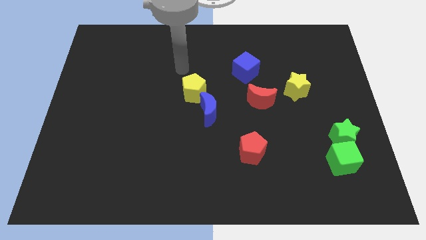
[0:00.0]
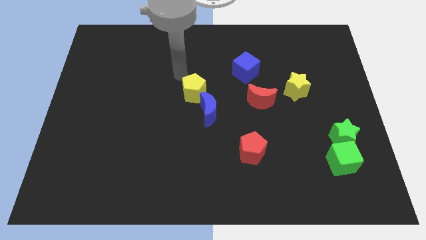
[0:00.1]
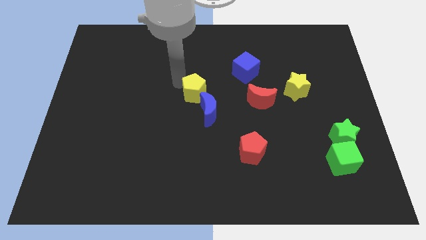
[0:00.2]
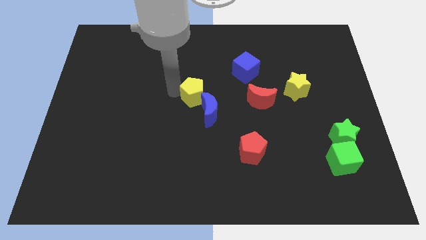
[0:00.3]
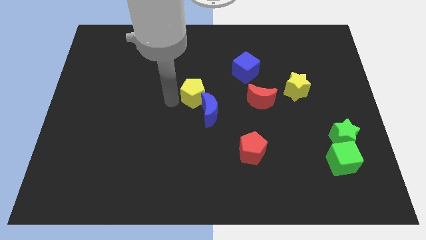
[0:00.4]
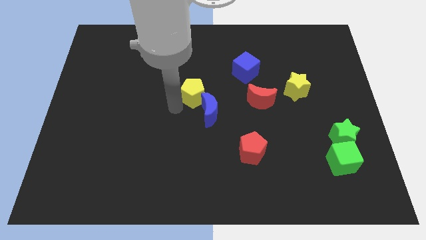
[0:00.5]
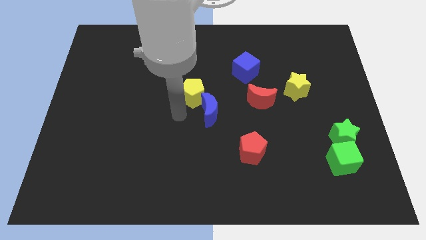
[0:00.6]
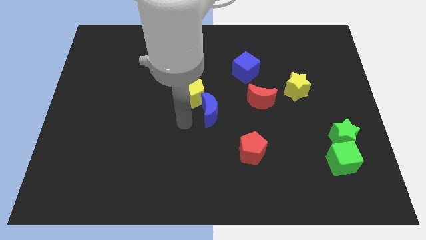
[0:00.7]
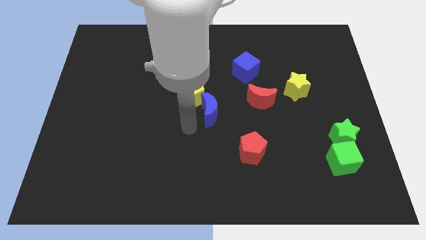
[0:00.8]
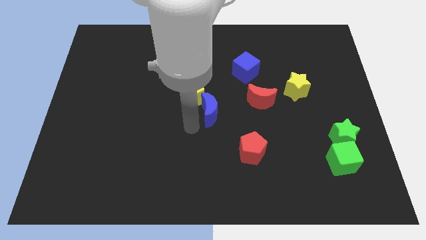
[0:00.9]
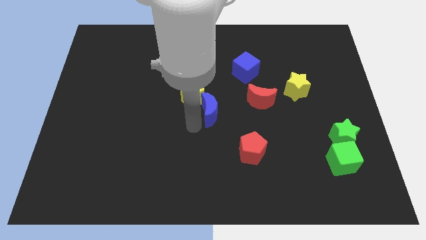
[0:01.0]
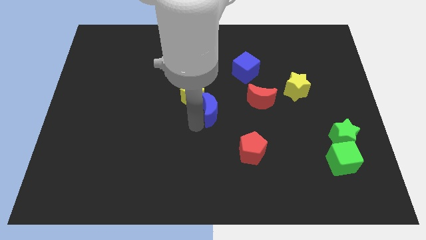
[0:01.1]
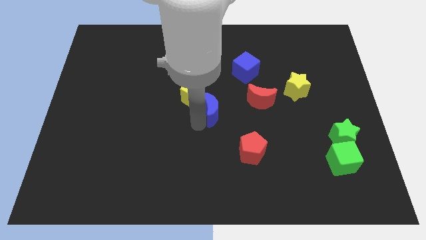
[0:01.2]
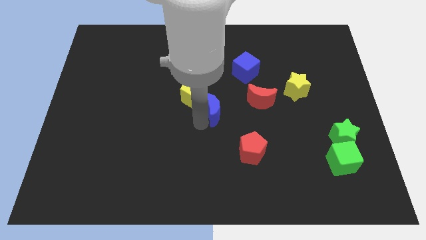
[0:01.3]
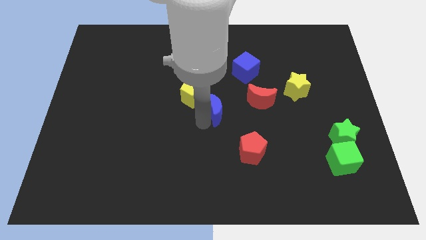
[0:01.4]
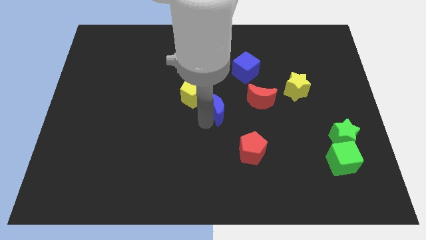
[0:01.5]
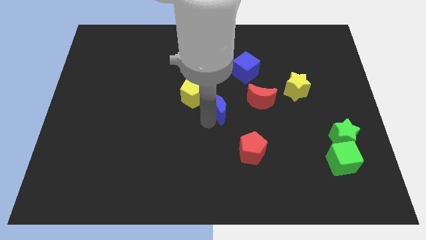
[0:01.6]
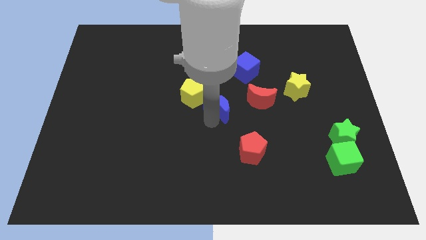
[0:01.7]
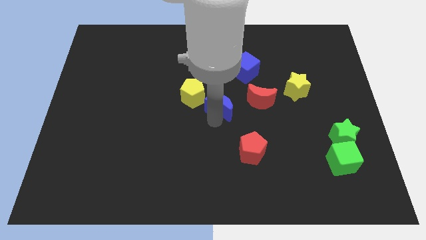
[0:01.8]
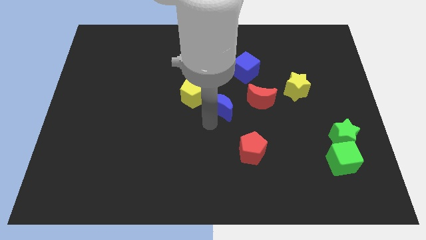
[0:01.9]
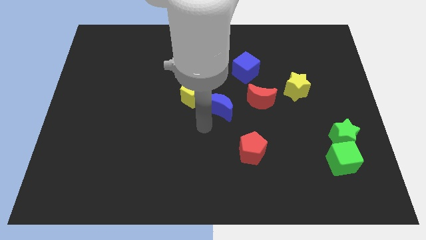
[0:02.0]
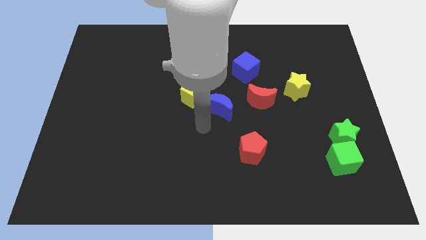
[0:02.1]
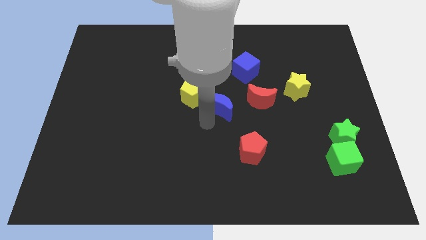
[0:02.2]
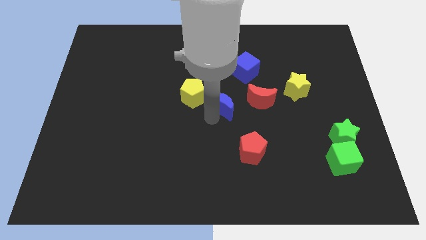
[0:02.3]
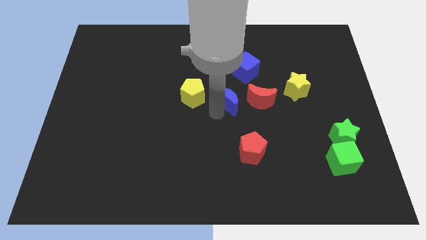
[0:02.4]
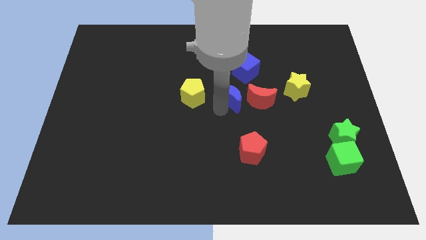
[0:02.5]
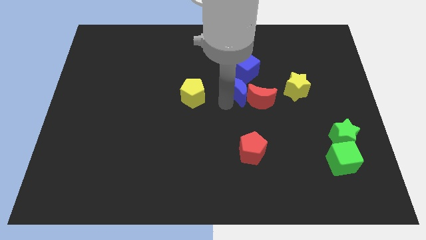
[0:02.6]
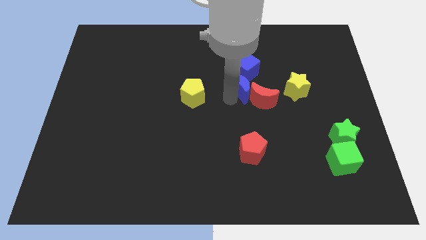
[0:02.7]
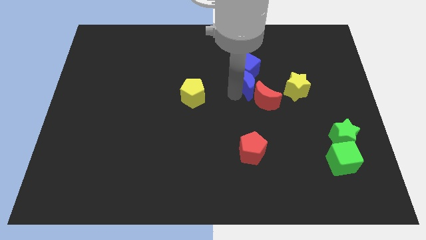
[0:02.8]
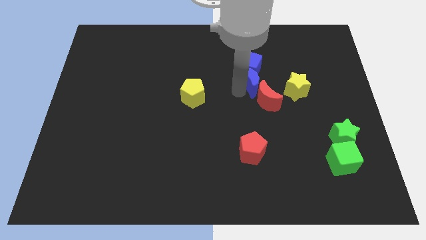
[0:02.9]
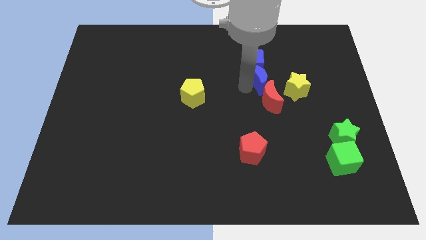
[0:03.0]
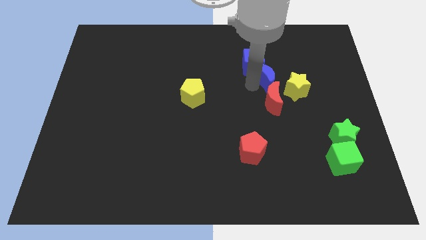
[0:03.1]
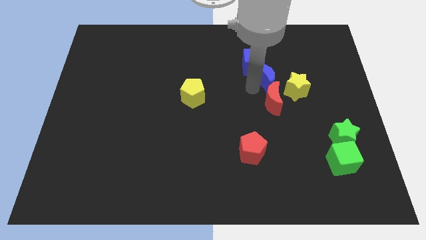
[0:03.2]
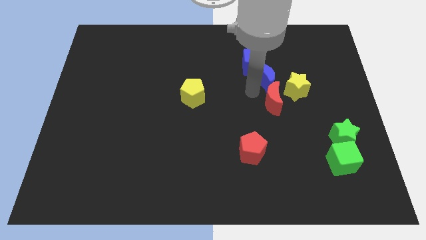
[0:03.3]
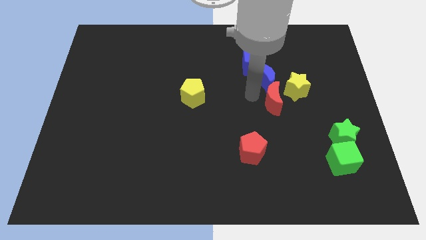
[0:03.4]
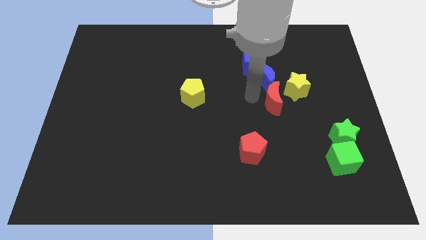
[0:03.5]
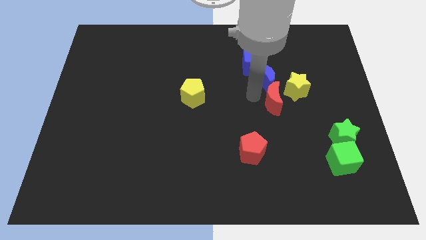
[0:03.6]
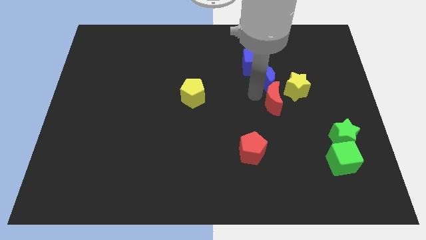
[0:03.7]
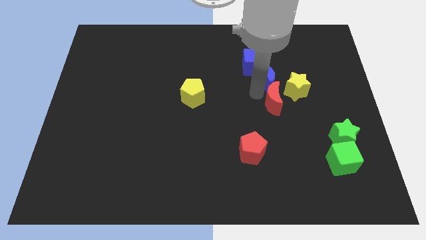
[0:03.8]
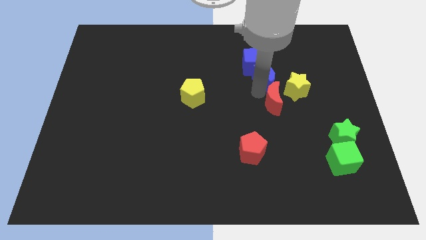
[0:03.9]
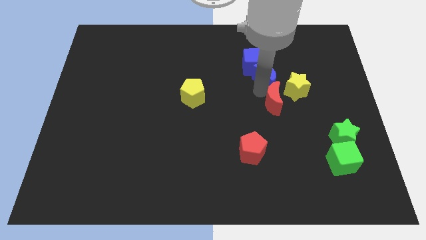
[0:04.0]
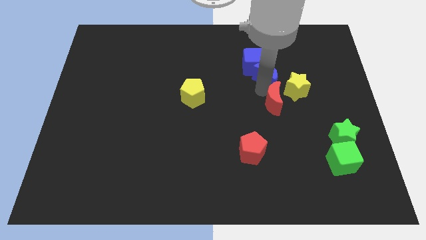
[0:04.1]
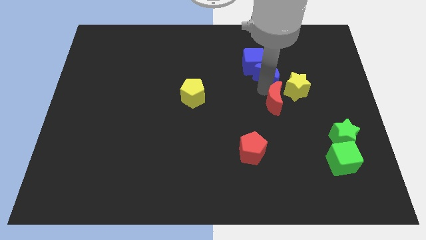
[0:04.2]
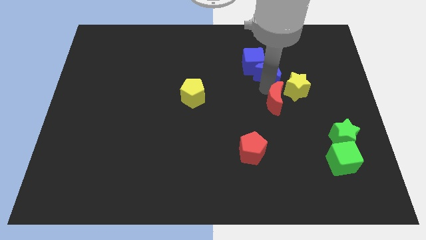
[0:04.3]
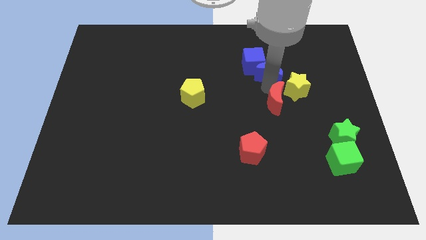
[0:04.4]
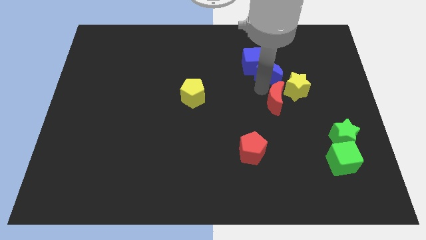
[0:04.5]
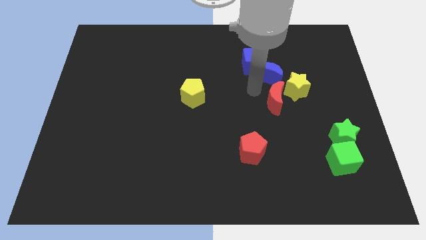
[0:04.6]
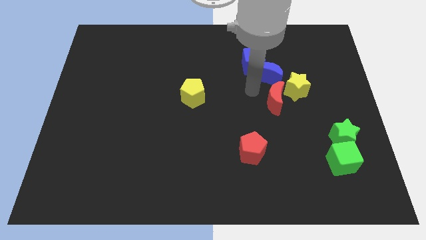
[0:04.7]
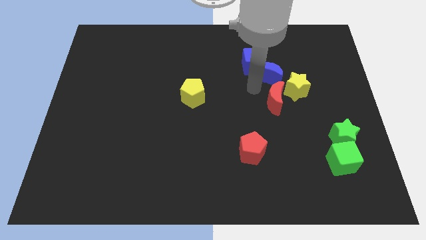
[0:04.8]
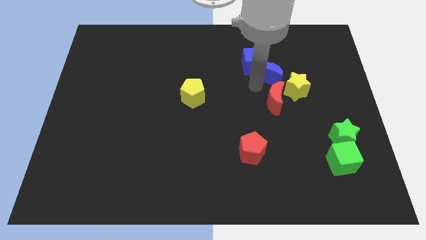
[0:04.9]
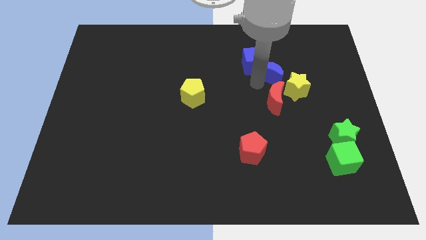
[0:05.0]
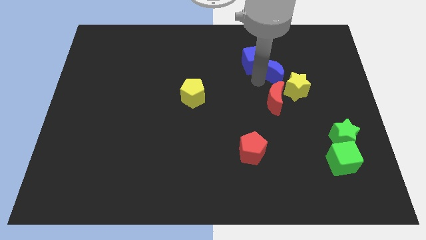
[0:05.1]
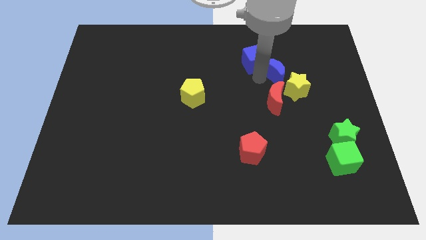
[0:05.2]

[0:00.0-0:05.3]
move the blue moon above the yellow star

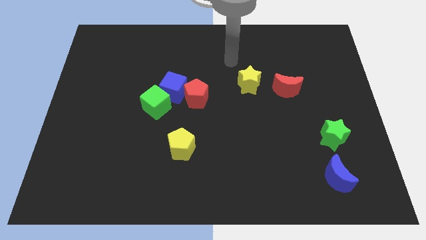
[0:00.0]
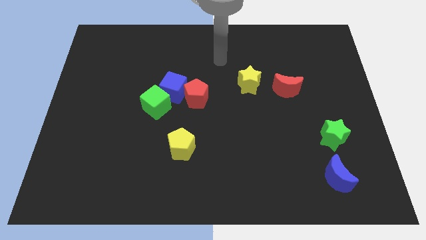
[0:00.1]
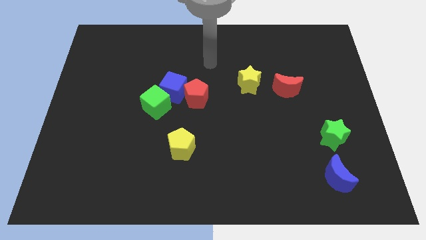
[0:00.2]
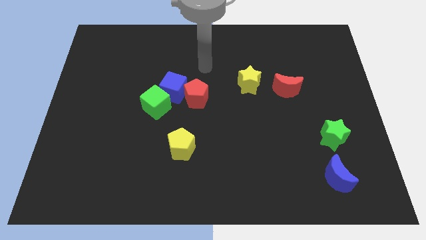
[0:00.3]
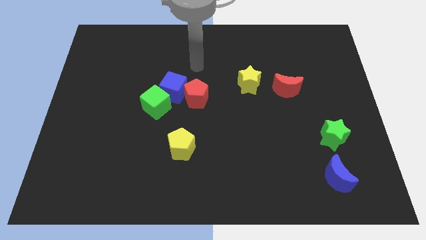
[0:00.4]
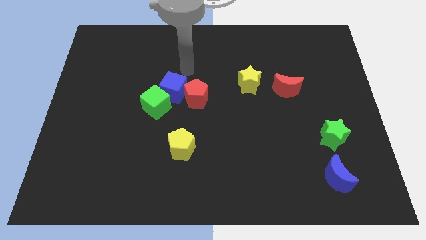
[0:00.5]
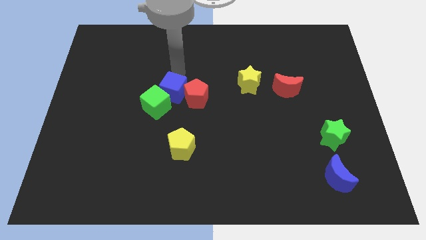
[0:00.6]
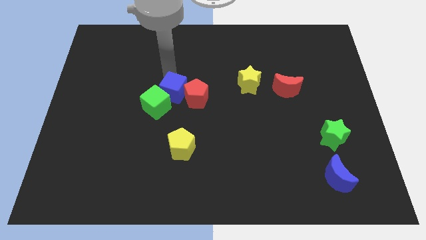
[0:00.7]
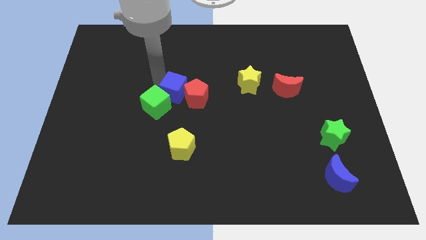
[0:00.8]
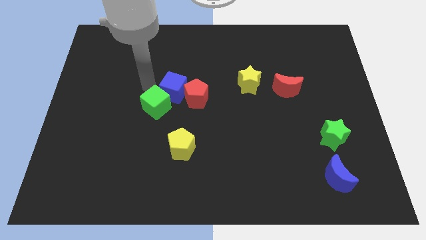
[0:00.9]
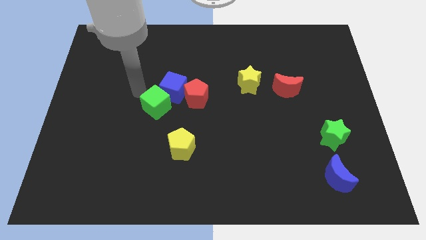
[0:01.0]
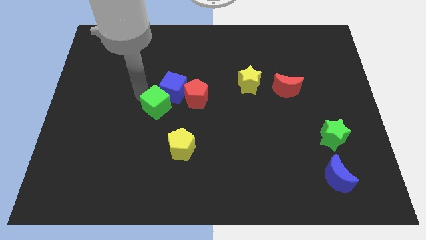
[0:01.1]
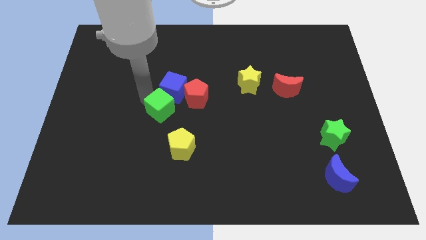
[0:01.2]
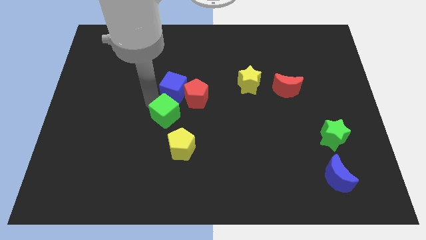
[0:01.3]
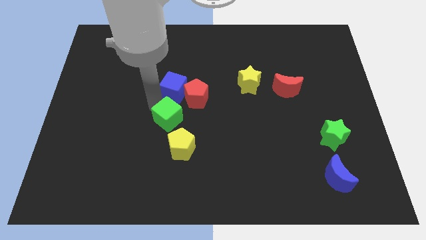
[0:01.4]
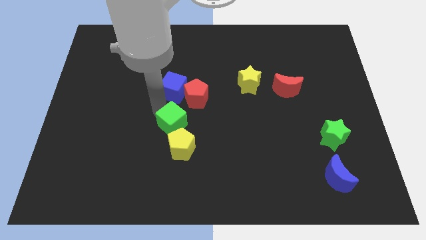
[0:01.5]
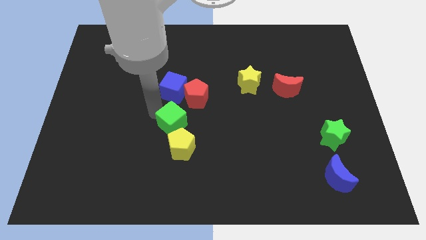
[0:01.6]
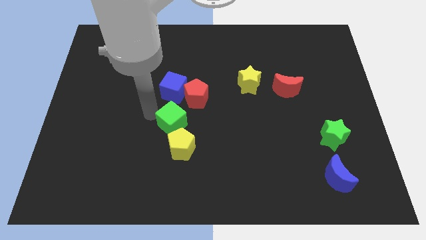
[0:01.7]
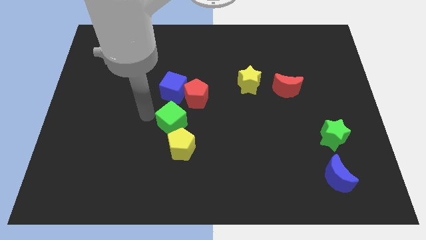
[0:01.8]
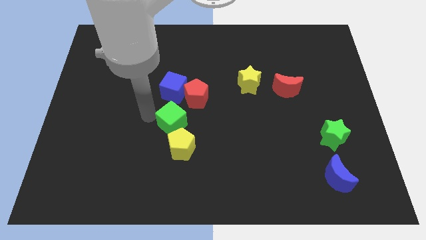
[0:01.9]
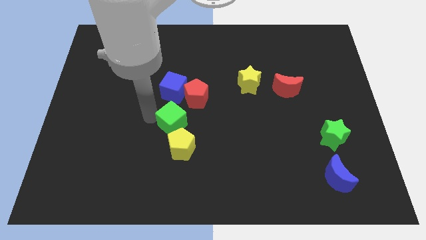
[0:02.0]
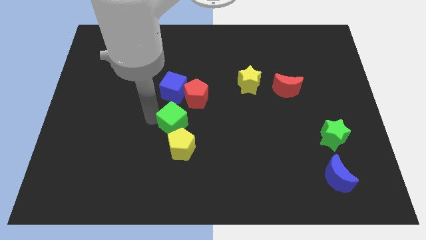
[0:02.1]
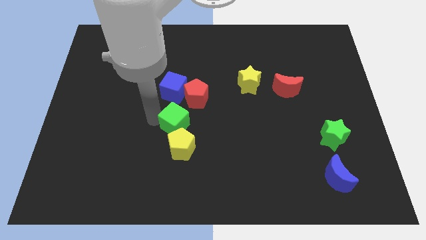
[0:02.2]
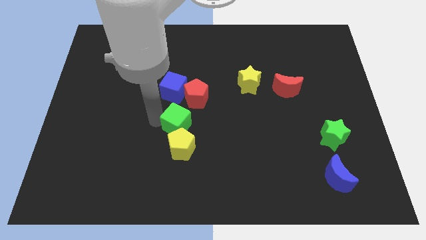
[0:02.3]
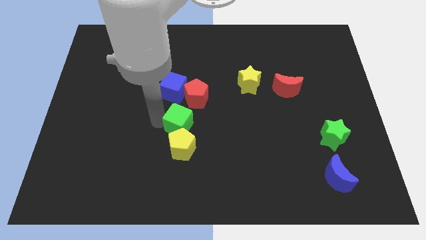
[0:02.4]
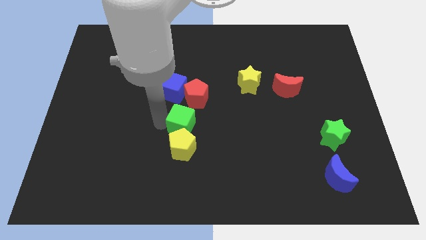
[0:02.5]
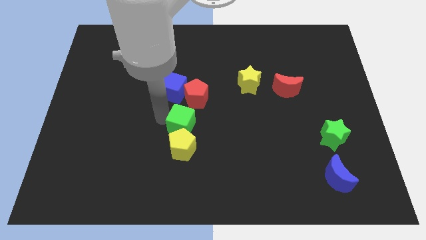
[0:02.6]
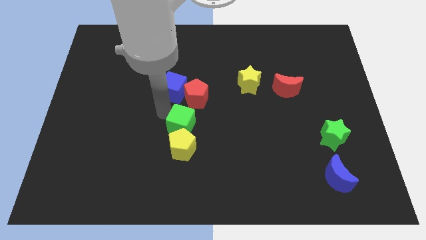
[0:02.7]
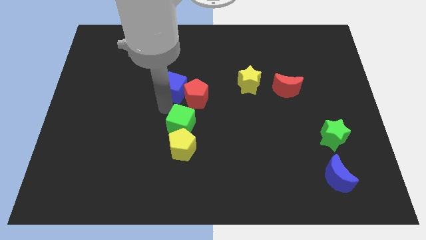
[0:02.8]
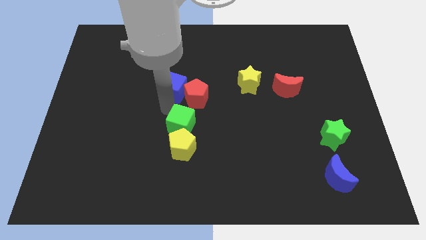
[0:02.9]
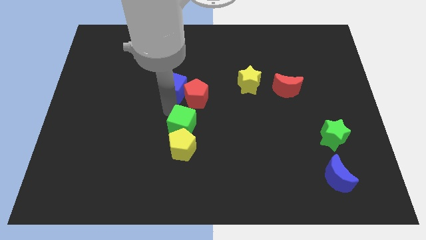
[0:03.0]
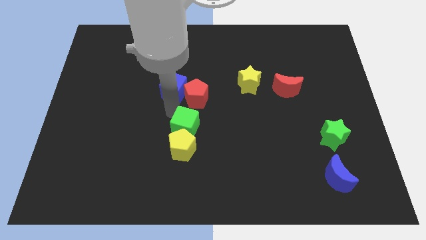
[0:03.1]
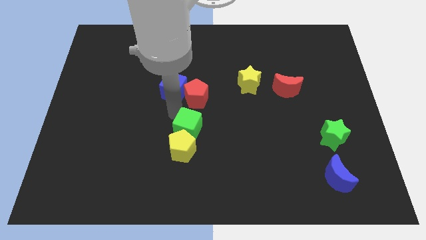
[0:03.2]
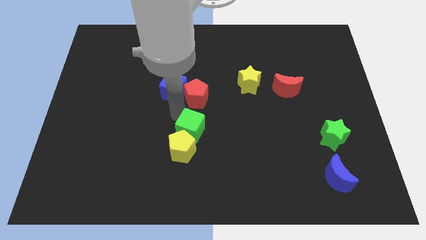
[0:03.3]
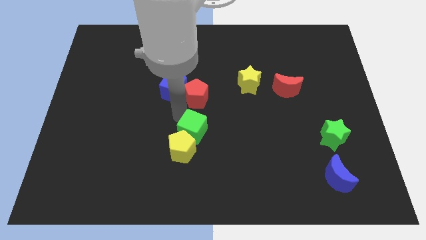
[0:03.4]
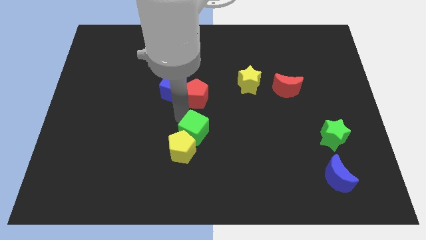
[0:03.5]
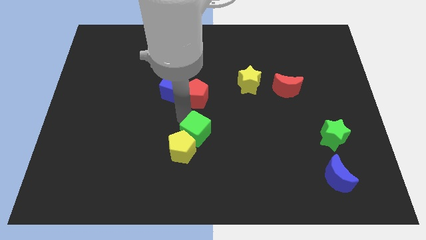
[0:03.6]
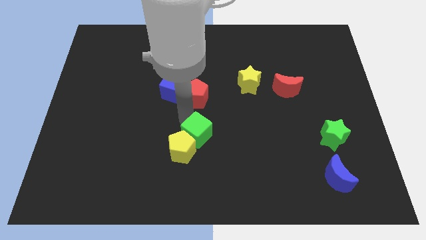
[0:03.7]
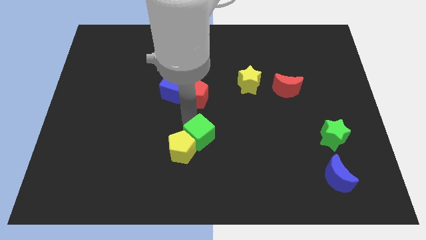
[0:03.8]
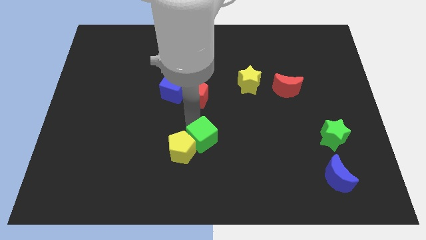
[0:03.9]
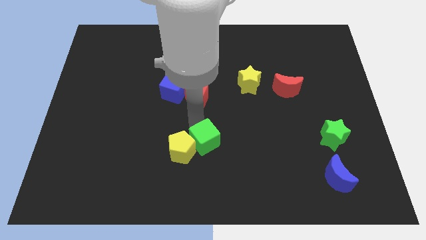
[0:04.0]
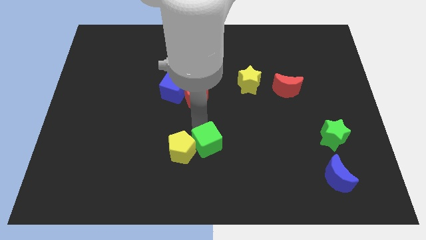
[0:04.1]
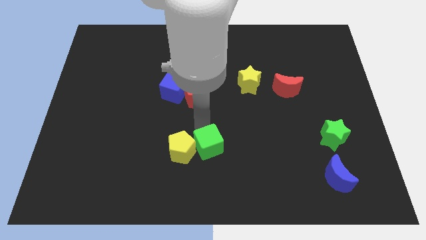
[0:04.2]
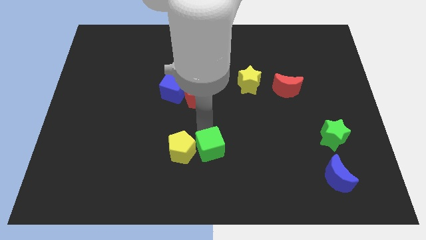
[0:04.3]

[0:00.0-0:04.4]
move the green cube to the bottom right of the yellow pentagon
